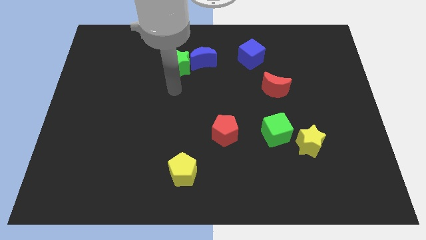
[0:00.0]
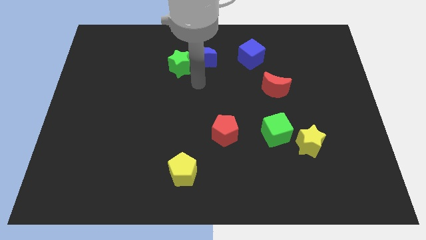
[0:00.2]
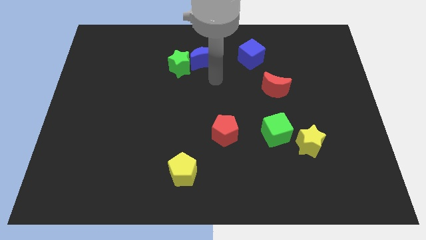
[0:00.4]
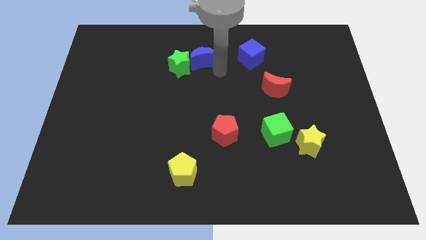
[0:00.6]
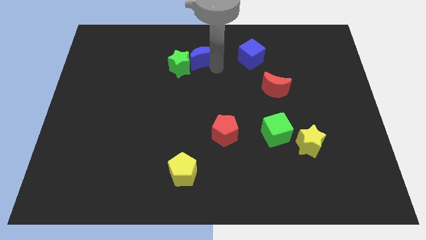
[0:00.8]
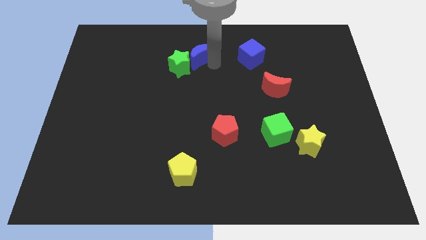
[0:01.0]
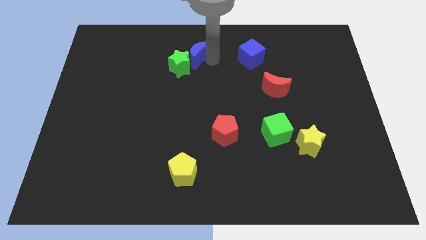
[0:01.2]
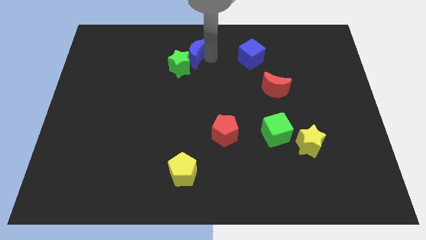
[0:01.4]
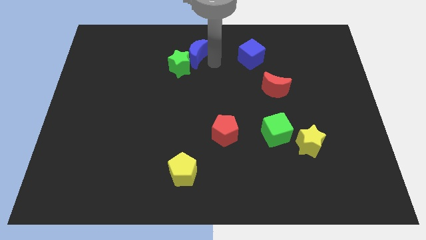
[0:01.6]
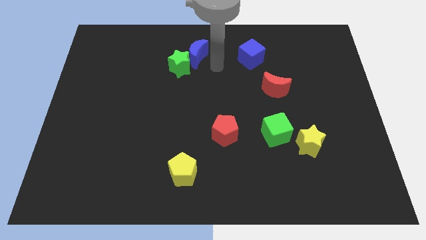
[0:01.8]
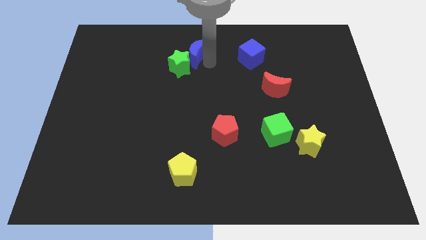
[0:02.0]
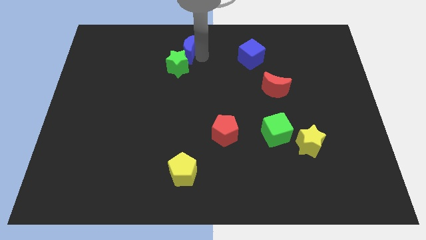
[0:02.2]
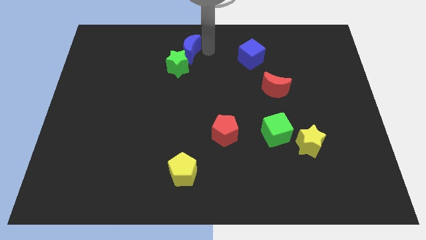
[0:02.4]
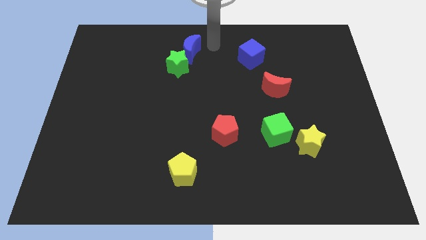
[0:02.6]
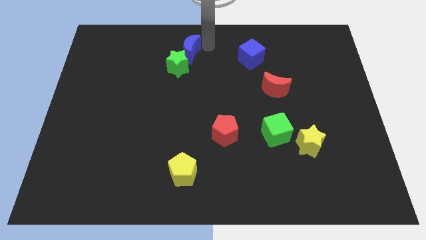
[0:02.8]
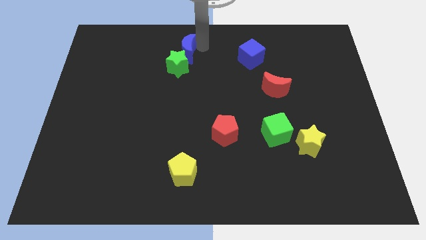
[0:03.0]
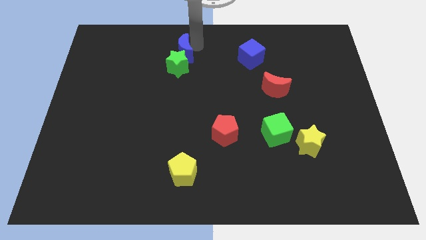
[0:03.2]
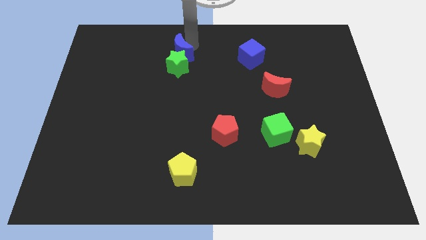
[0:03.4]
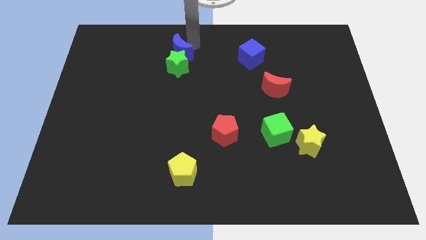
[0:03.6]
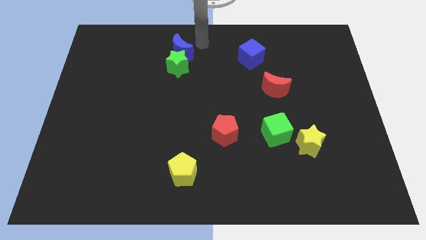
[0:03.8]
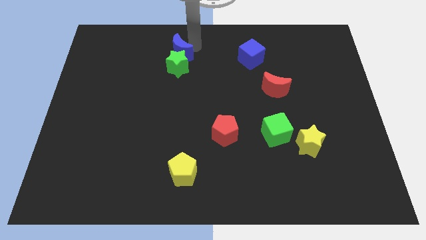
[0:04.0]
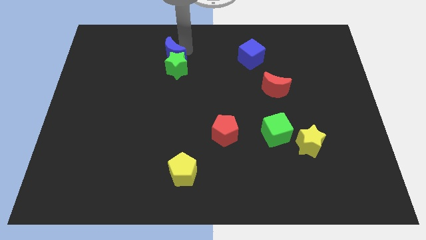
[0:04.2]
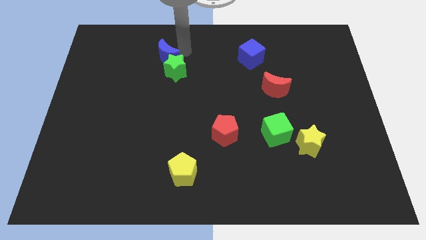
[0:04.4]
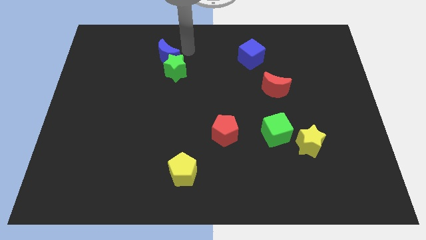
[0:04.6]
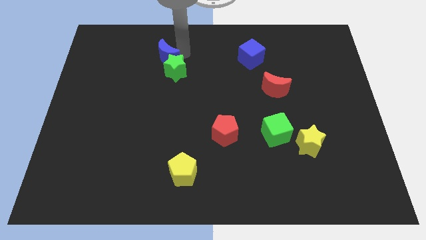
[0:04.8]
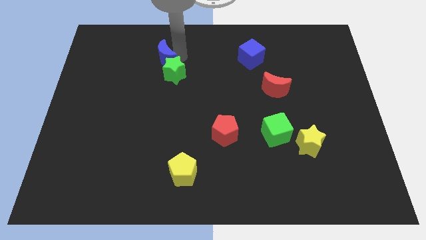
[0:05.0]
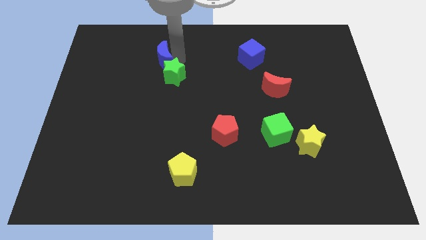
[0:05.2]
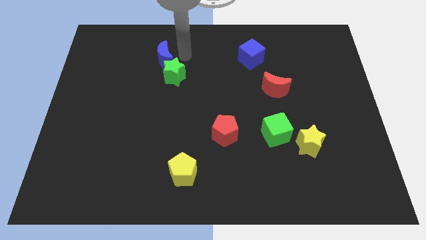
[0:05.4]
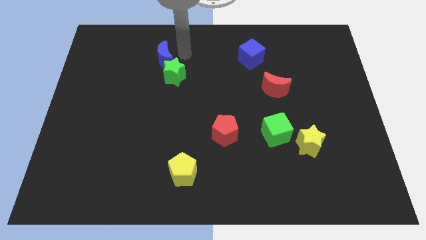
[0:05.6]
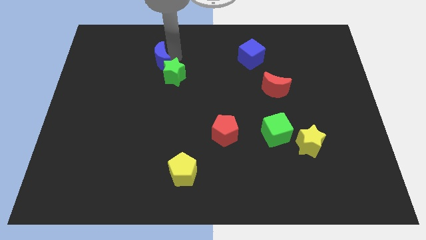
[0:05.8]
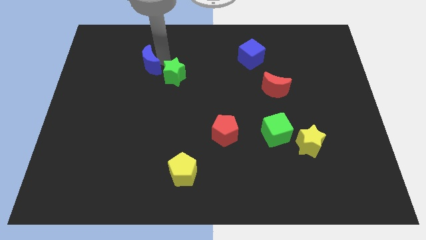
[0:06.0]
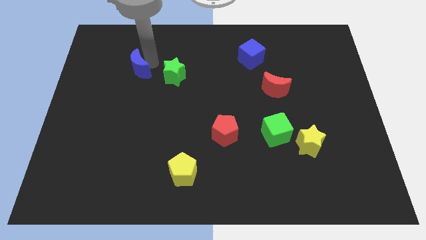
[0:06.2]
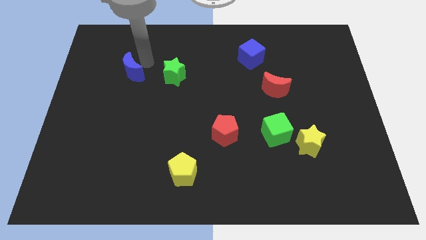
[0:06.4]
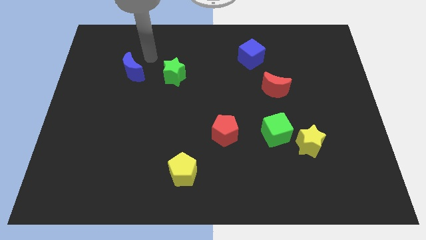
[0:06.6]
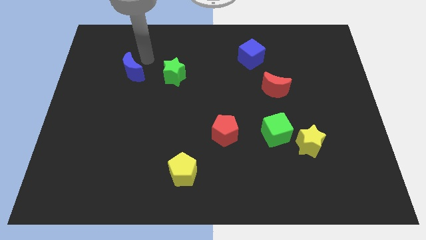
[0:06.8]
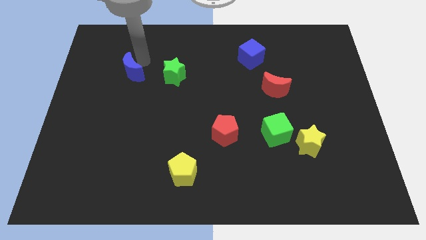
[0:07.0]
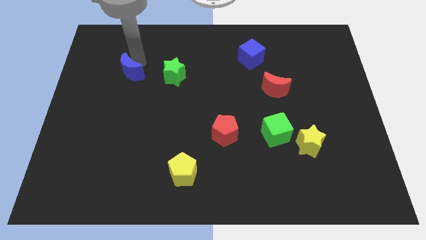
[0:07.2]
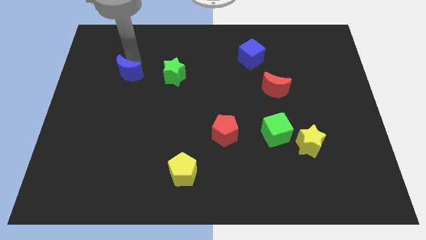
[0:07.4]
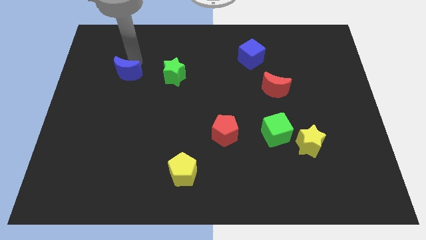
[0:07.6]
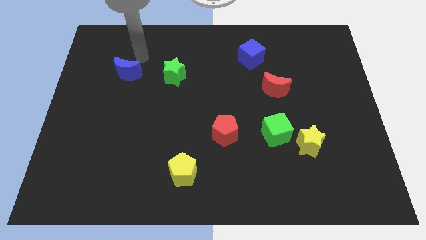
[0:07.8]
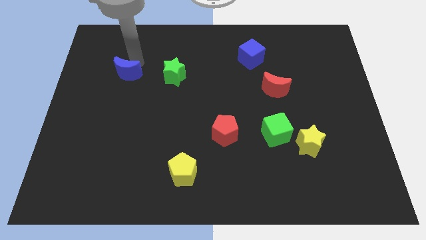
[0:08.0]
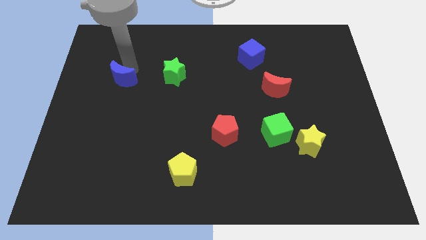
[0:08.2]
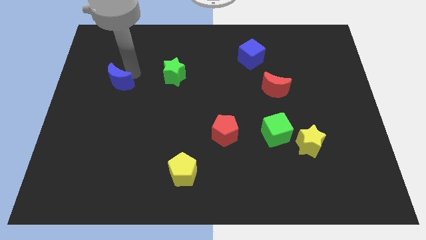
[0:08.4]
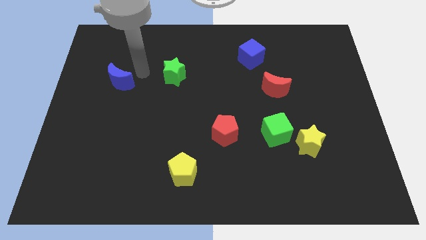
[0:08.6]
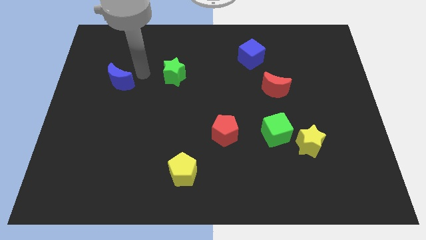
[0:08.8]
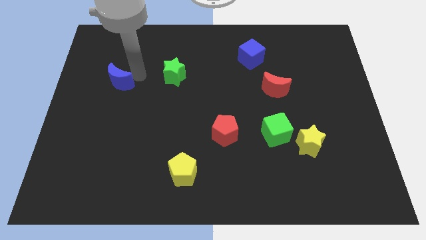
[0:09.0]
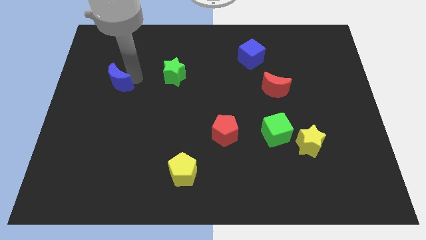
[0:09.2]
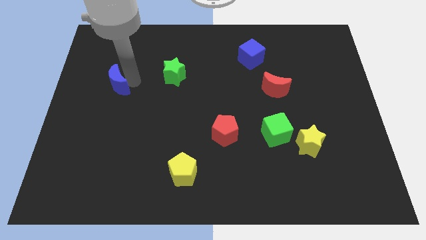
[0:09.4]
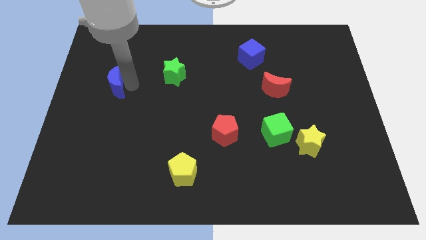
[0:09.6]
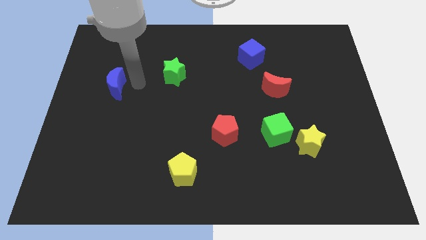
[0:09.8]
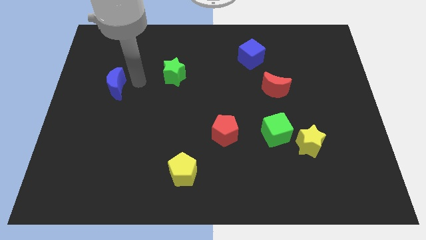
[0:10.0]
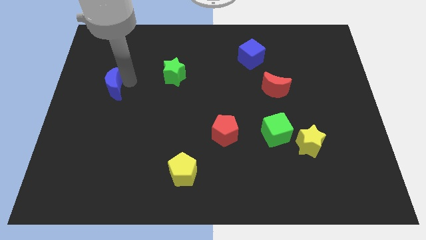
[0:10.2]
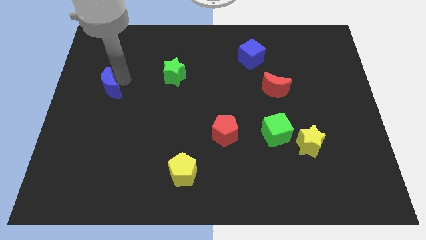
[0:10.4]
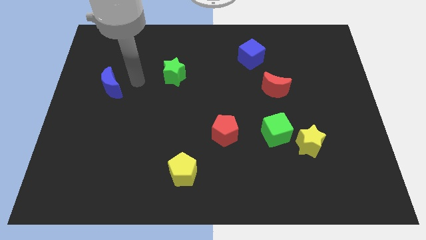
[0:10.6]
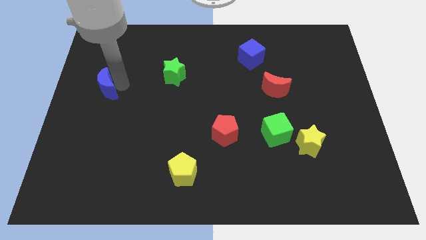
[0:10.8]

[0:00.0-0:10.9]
slide the blue moon to the center left

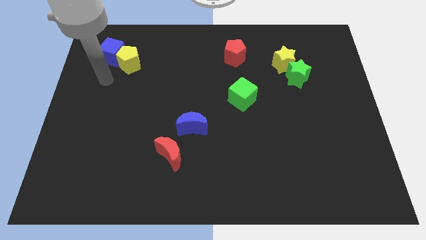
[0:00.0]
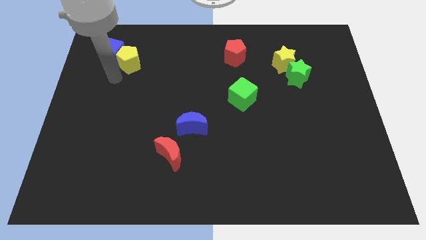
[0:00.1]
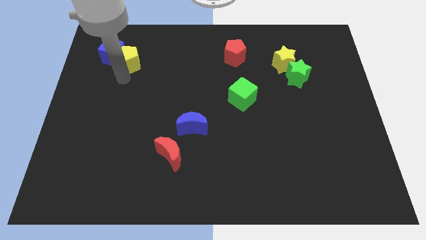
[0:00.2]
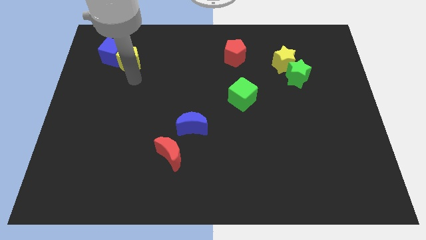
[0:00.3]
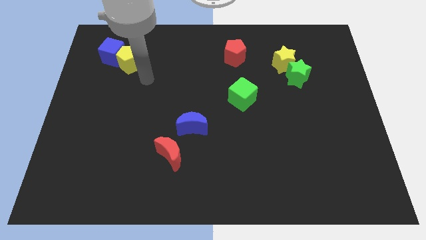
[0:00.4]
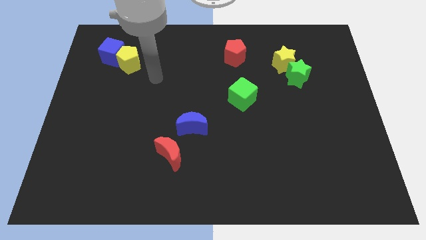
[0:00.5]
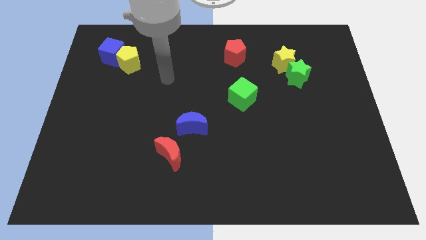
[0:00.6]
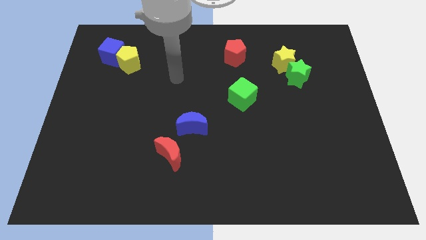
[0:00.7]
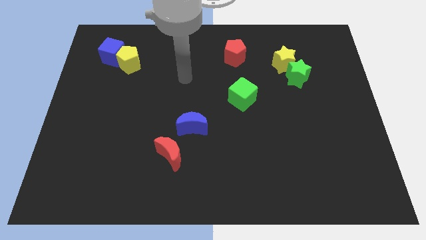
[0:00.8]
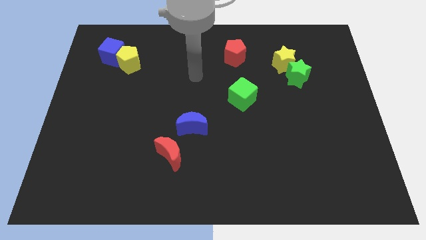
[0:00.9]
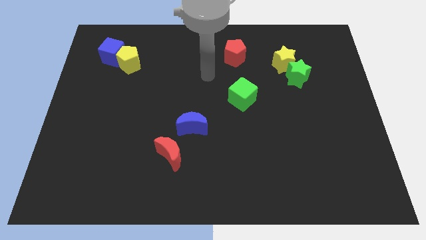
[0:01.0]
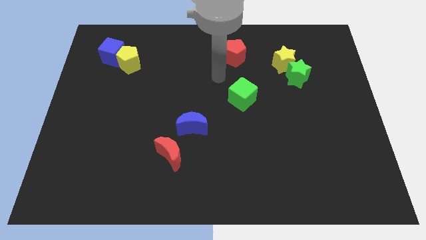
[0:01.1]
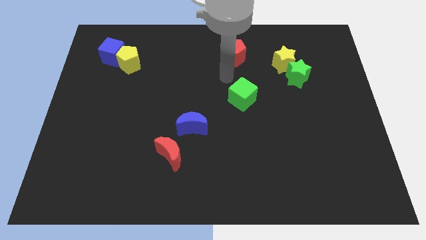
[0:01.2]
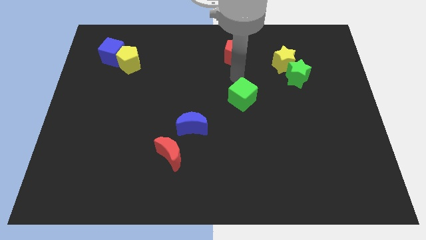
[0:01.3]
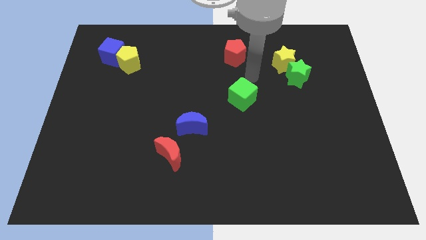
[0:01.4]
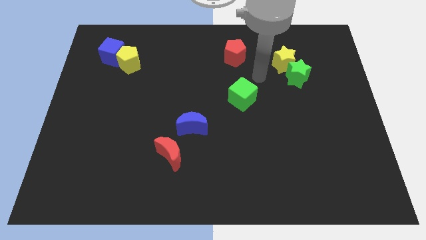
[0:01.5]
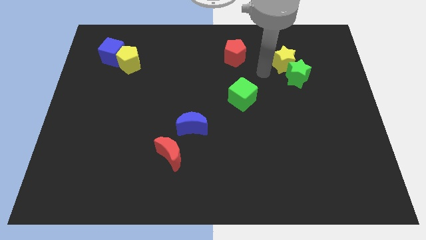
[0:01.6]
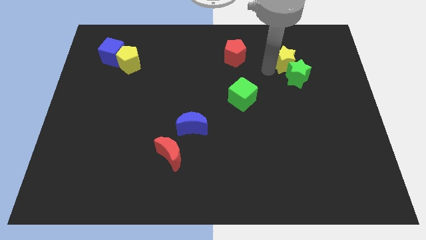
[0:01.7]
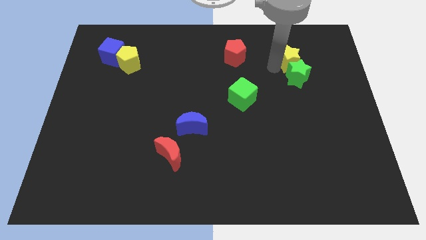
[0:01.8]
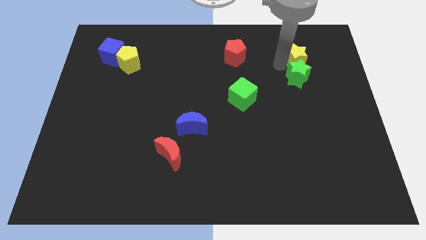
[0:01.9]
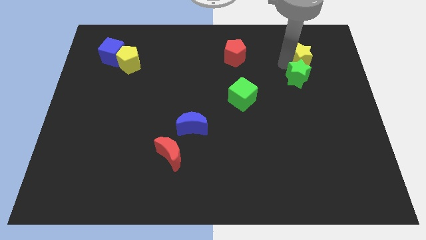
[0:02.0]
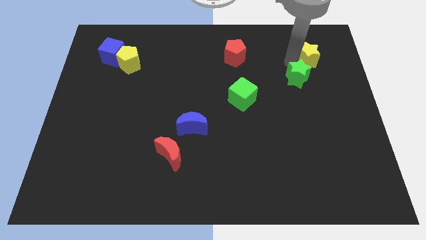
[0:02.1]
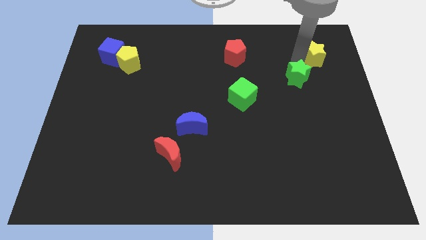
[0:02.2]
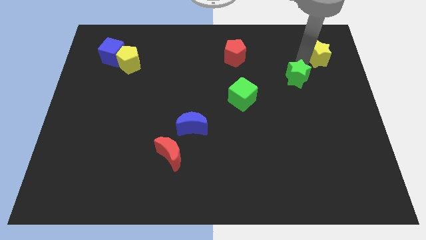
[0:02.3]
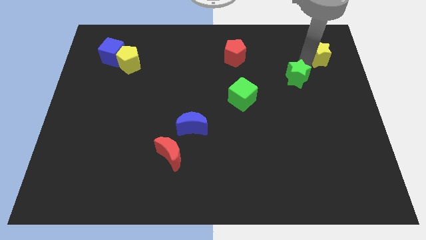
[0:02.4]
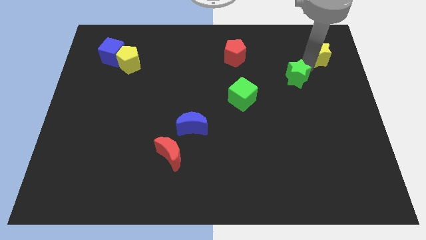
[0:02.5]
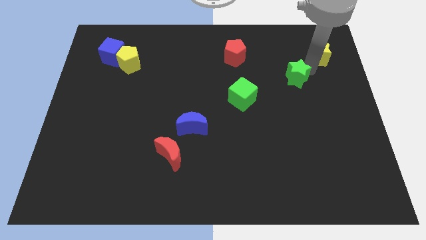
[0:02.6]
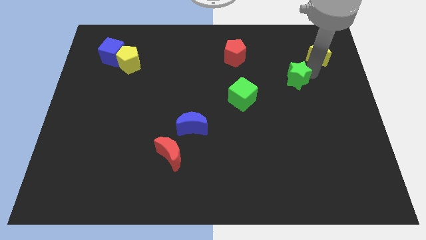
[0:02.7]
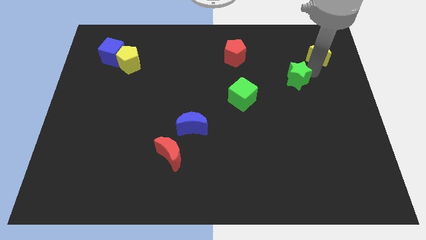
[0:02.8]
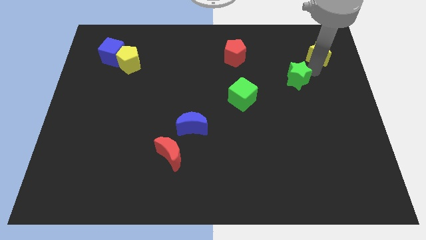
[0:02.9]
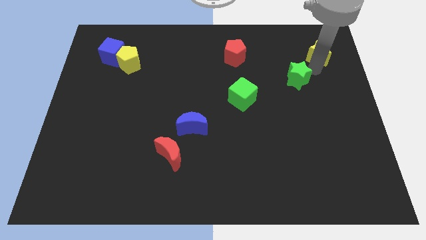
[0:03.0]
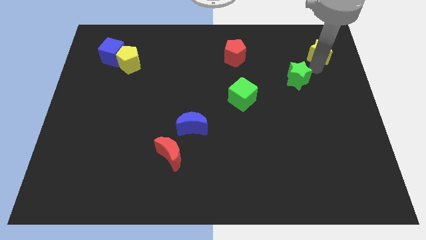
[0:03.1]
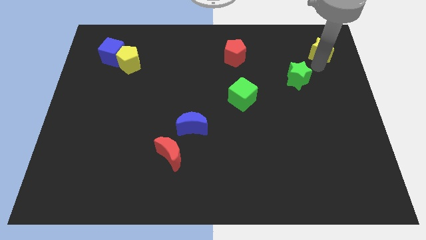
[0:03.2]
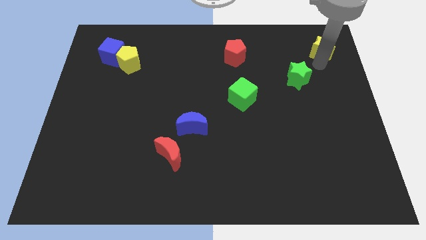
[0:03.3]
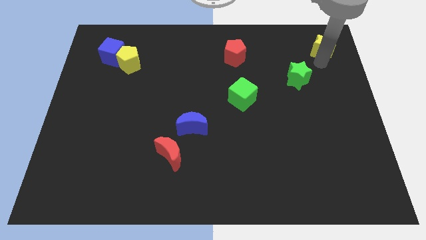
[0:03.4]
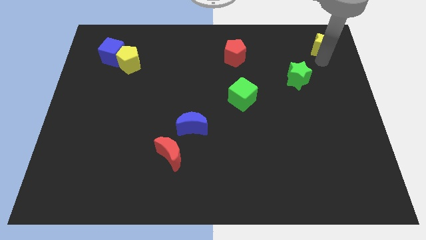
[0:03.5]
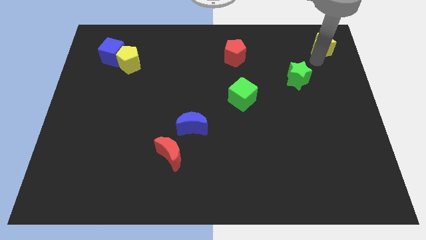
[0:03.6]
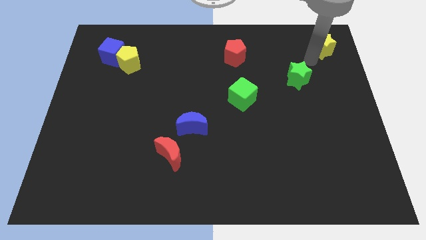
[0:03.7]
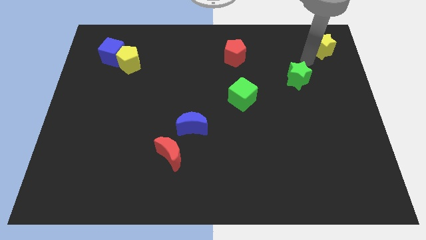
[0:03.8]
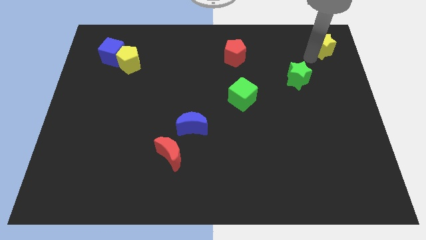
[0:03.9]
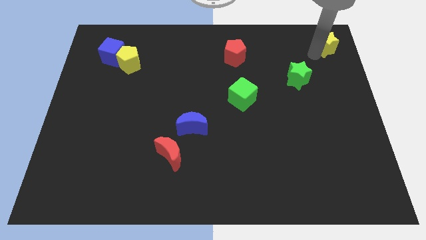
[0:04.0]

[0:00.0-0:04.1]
move the yellow star to the upper right corner
